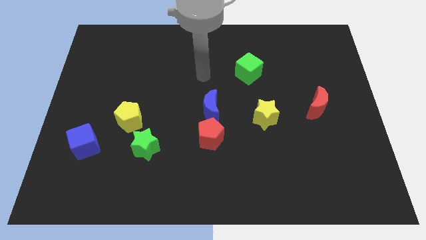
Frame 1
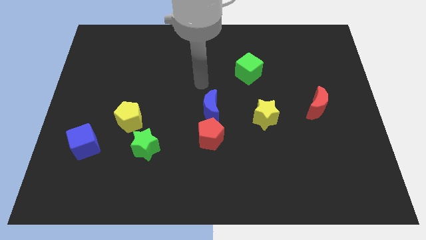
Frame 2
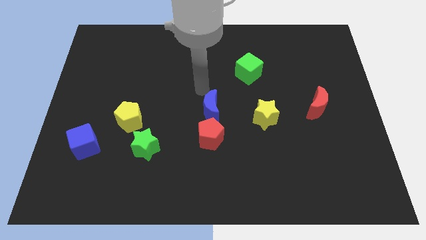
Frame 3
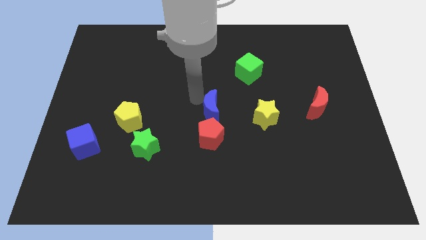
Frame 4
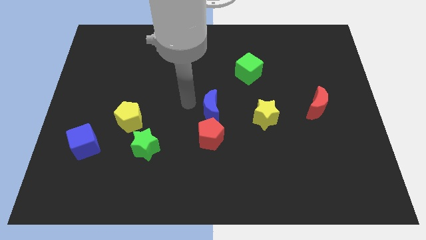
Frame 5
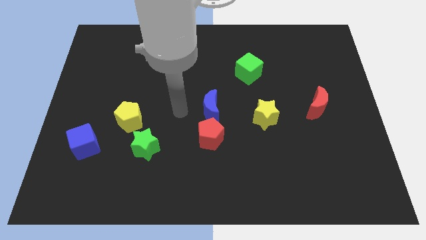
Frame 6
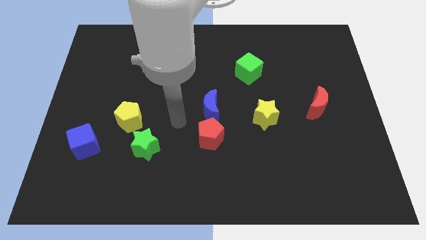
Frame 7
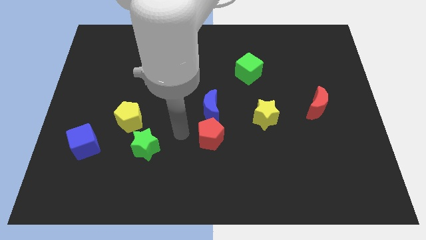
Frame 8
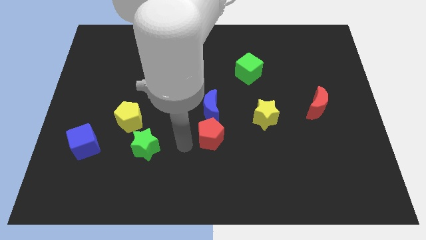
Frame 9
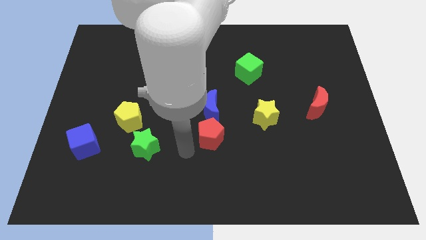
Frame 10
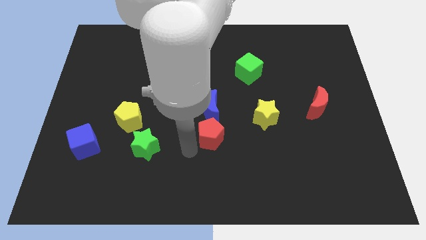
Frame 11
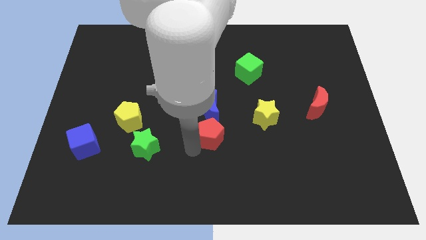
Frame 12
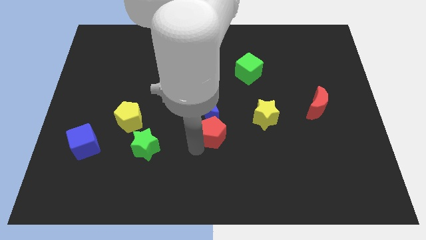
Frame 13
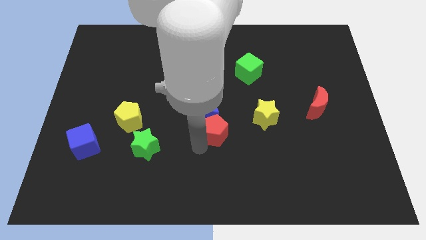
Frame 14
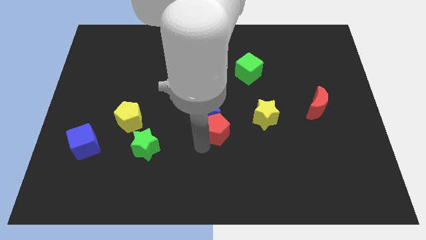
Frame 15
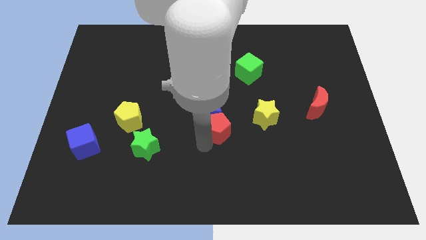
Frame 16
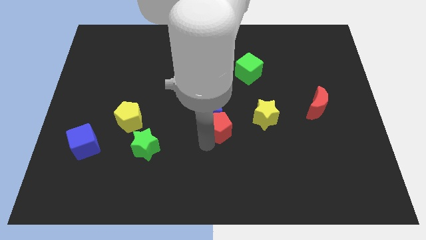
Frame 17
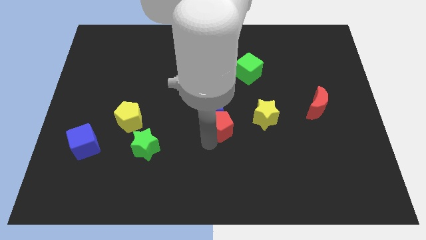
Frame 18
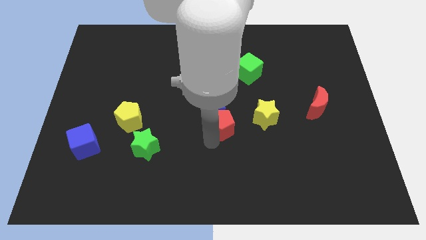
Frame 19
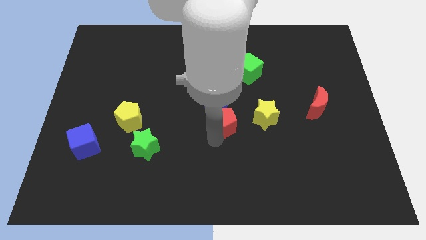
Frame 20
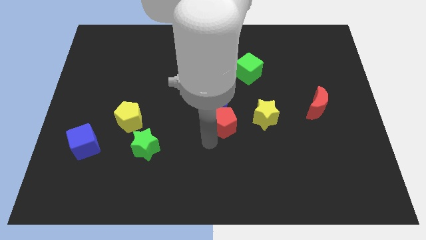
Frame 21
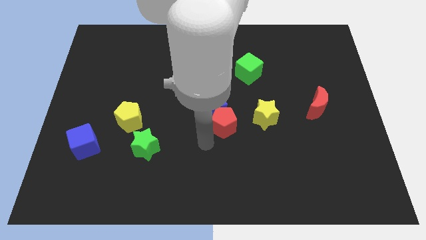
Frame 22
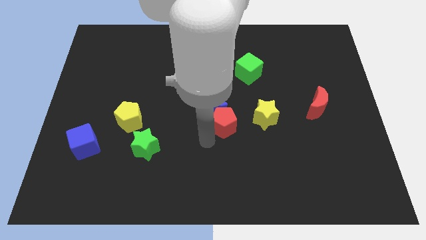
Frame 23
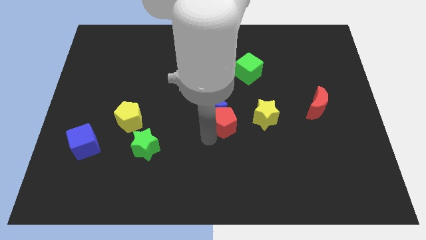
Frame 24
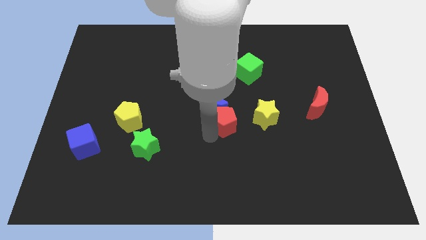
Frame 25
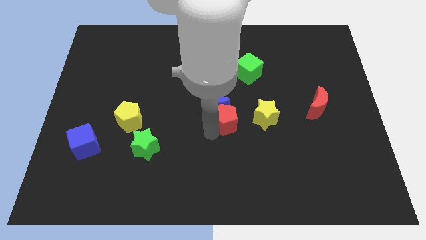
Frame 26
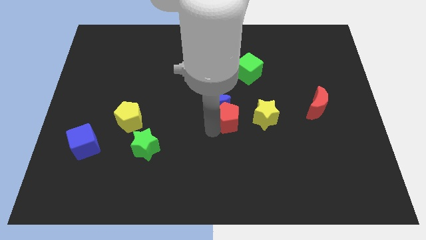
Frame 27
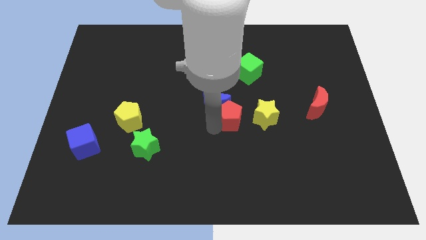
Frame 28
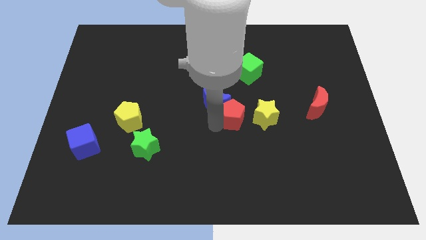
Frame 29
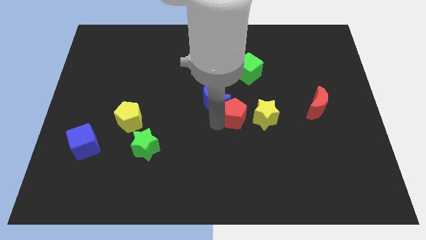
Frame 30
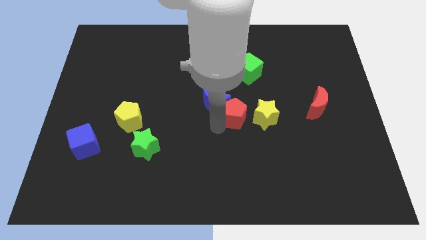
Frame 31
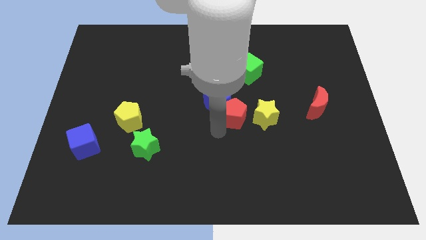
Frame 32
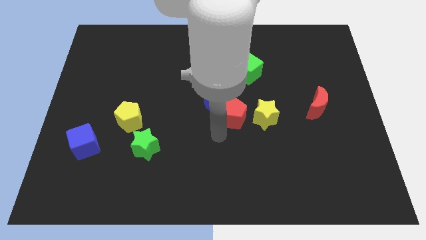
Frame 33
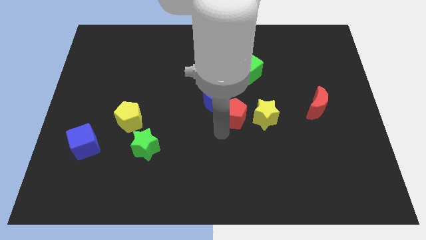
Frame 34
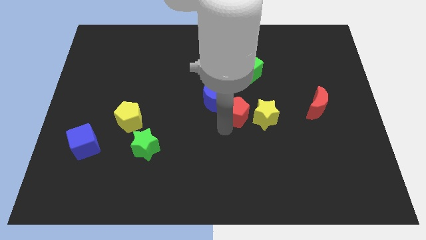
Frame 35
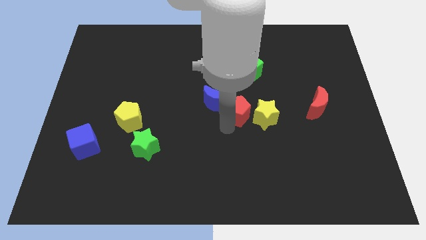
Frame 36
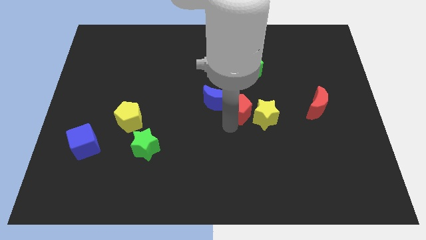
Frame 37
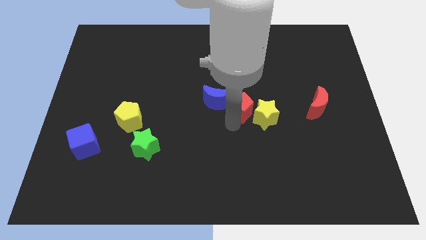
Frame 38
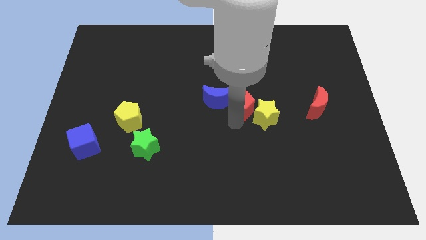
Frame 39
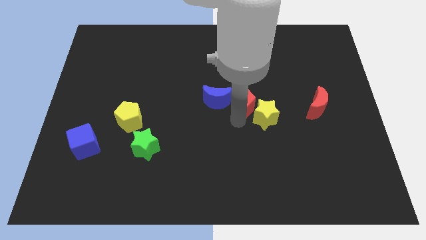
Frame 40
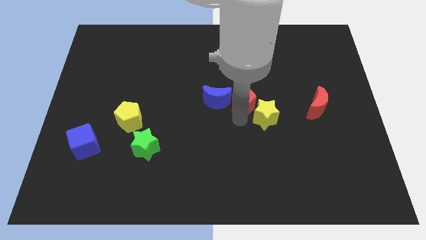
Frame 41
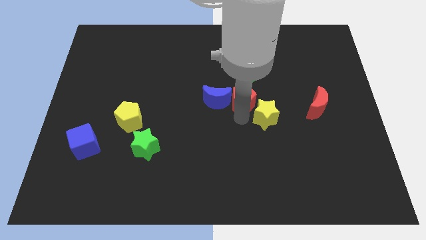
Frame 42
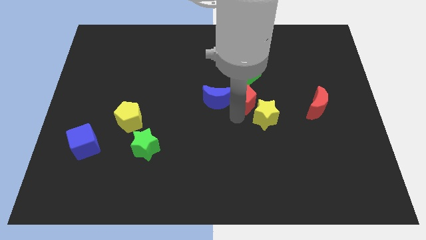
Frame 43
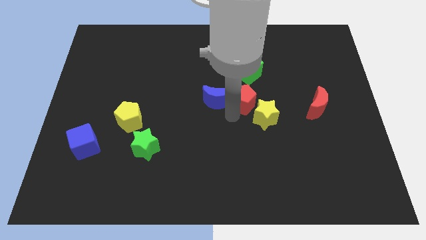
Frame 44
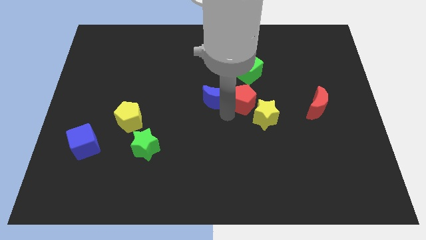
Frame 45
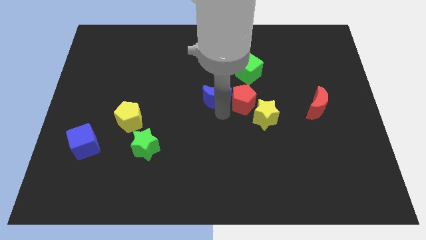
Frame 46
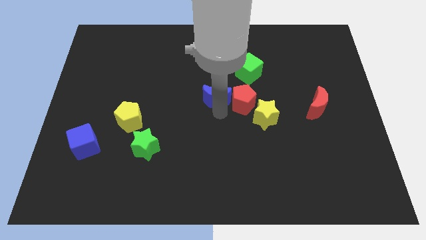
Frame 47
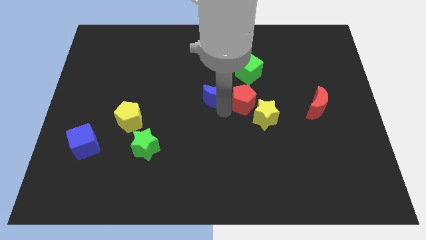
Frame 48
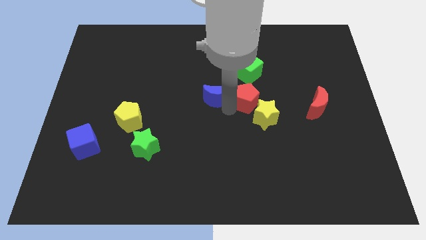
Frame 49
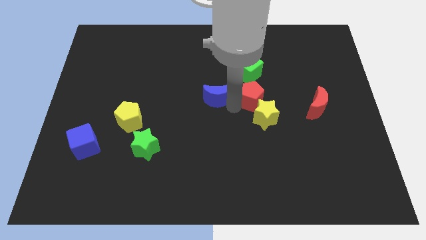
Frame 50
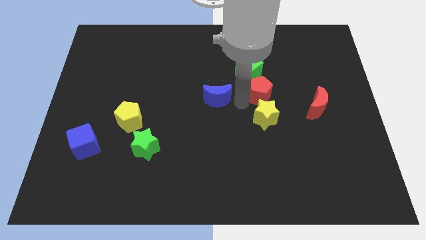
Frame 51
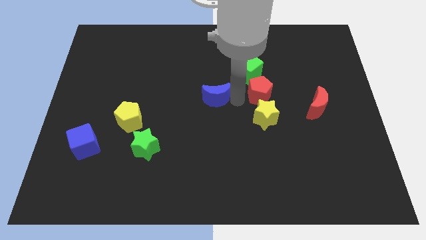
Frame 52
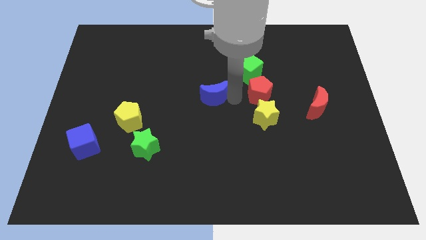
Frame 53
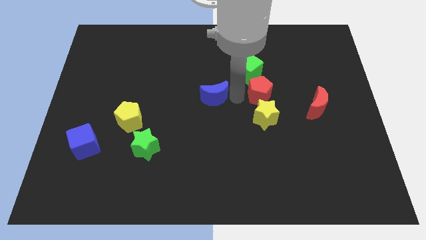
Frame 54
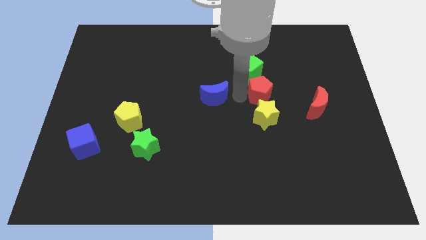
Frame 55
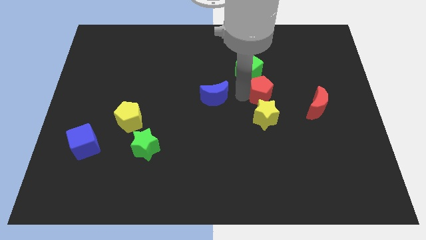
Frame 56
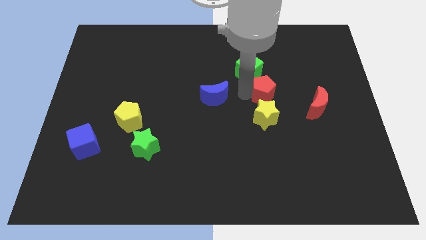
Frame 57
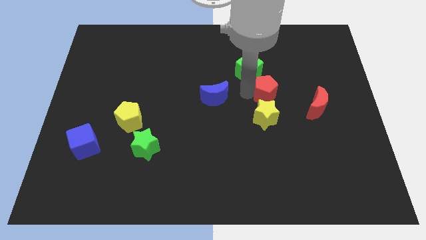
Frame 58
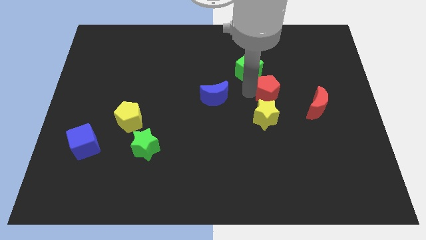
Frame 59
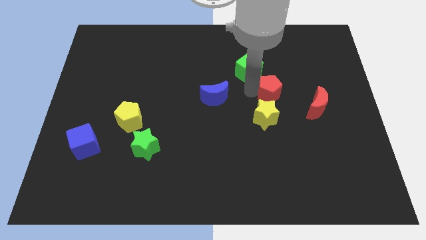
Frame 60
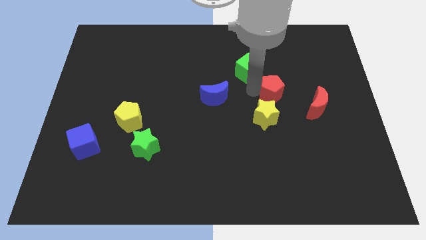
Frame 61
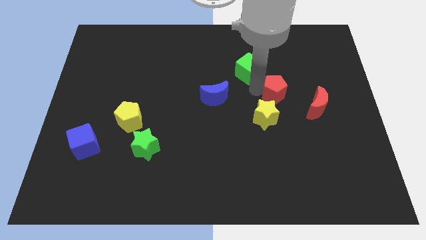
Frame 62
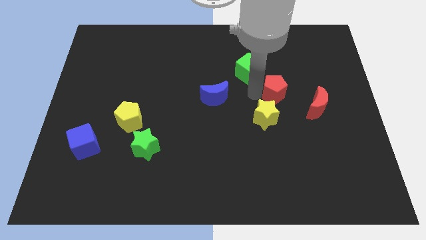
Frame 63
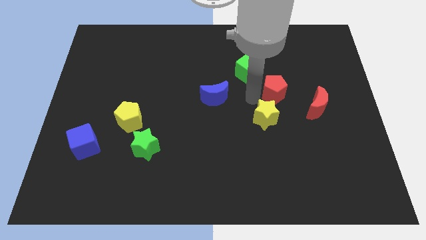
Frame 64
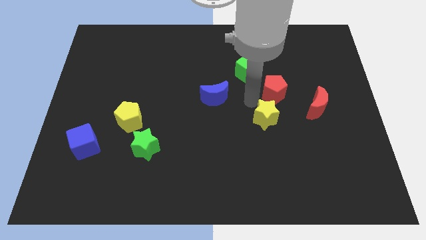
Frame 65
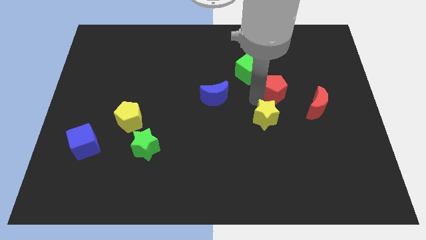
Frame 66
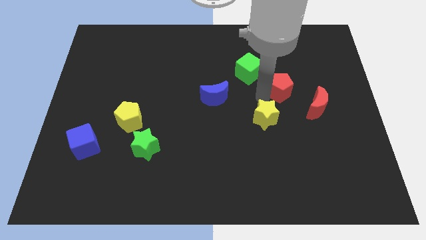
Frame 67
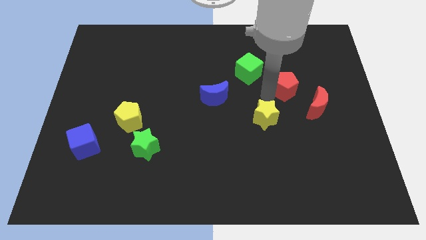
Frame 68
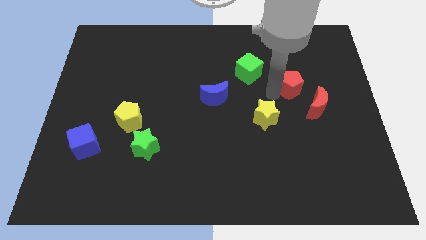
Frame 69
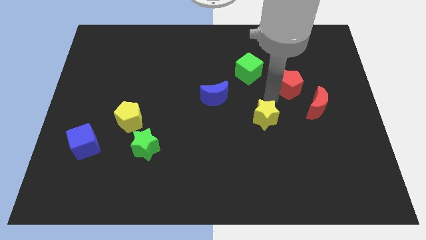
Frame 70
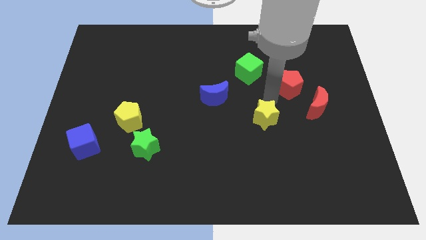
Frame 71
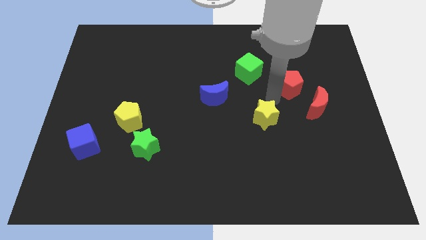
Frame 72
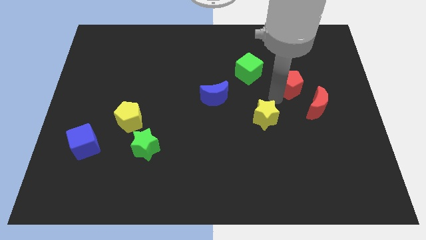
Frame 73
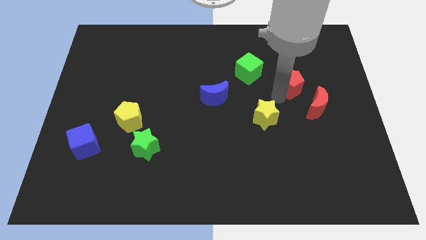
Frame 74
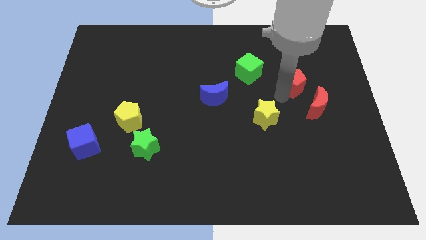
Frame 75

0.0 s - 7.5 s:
put the red pentagon to the top of the red moon
